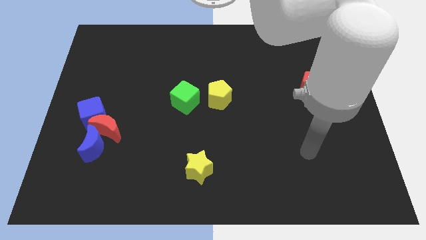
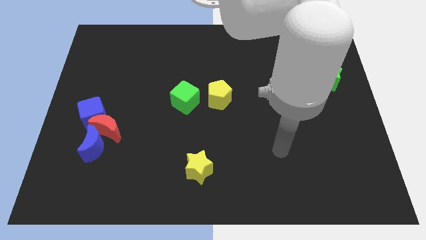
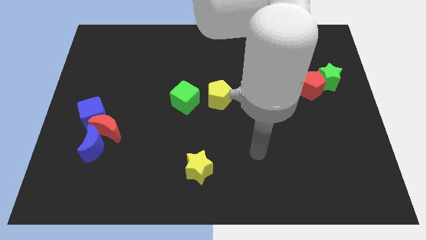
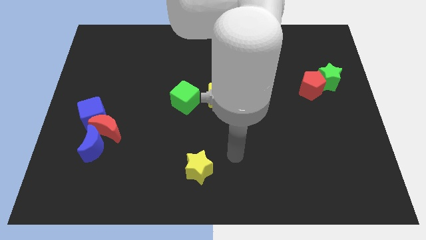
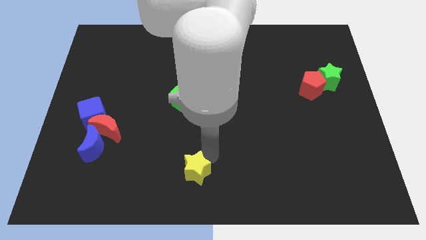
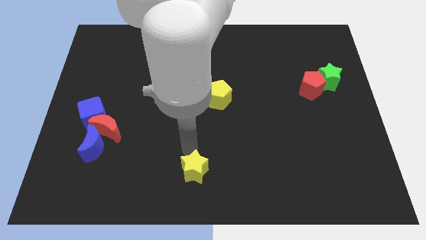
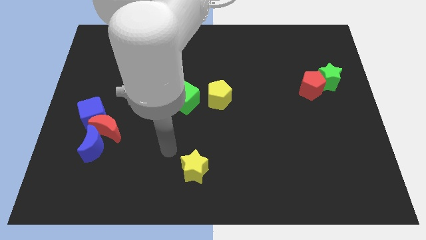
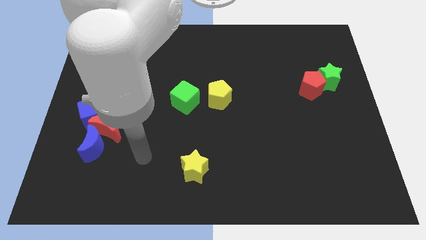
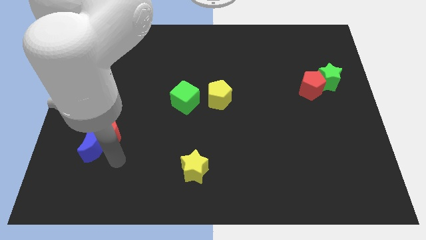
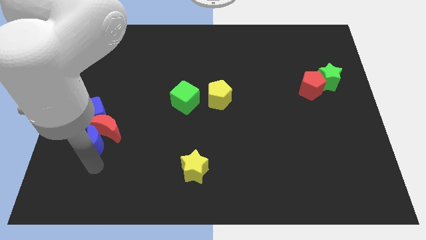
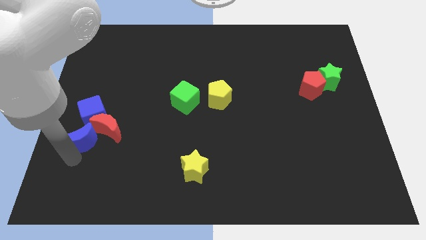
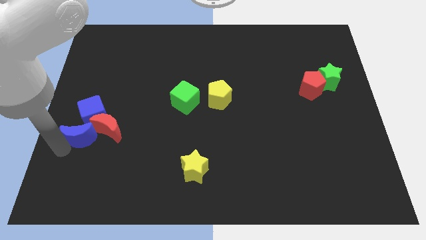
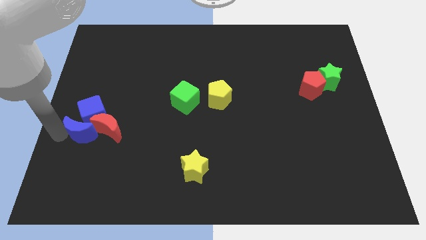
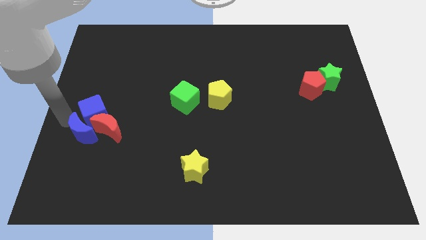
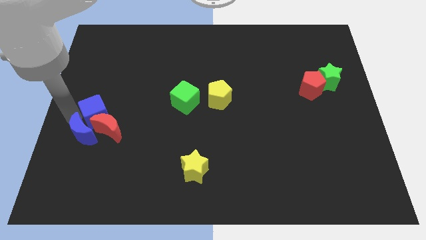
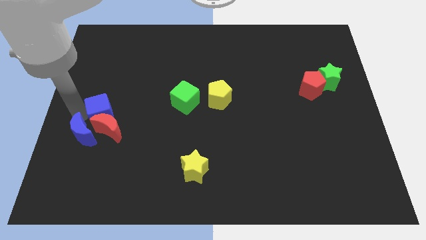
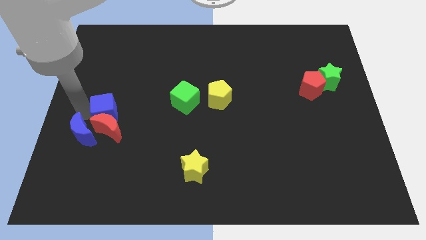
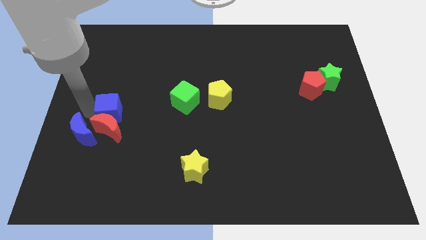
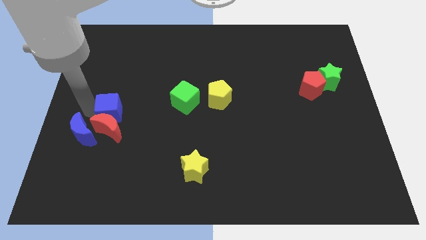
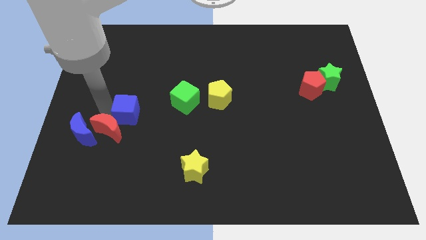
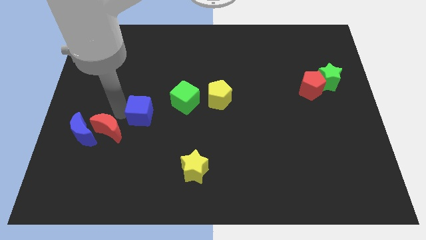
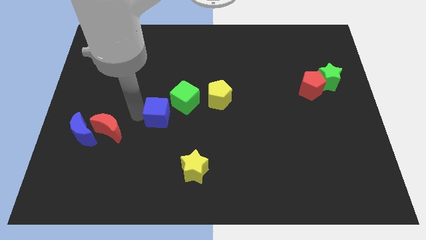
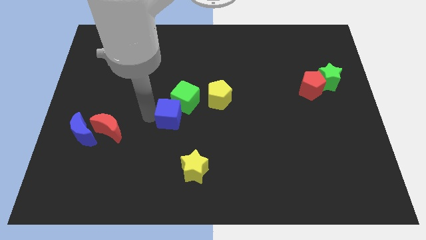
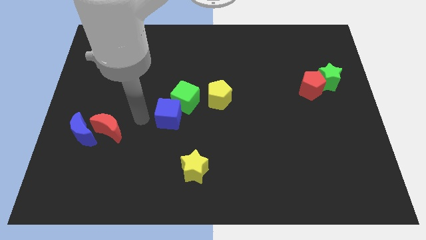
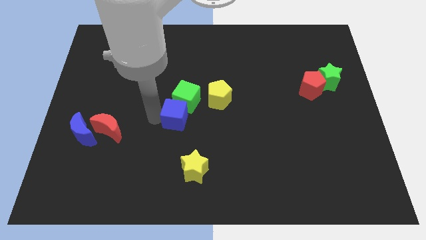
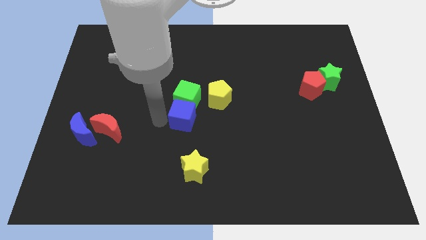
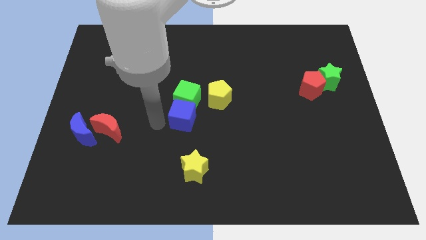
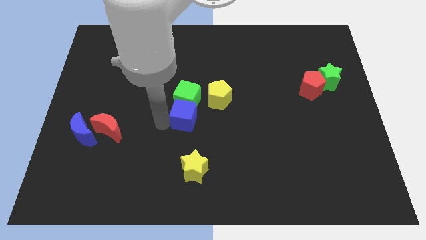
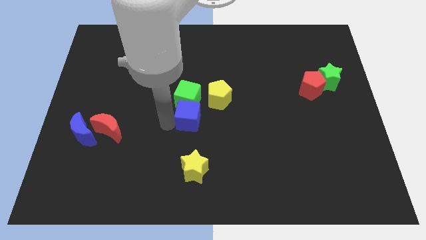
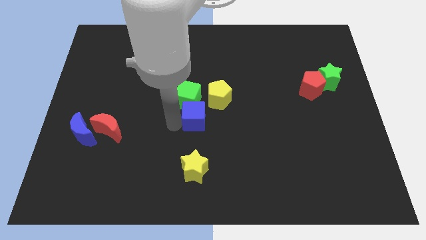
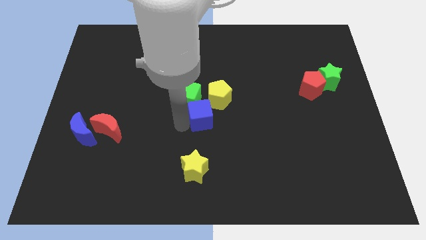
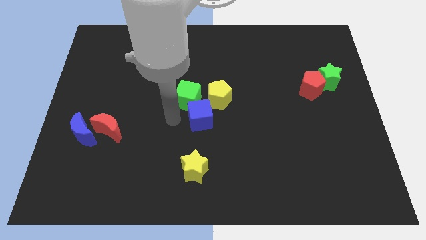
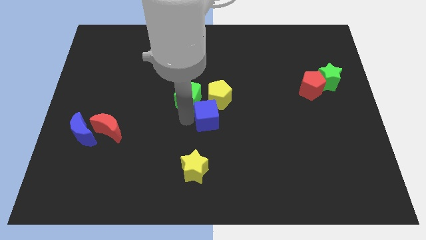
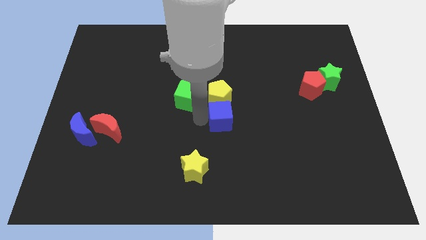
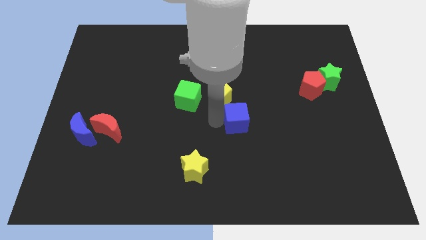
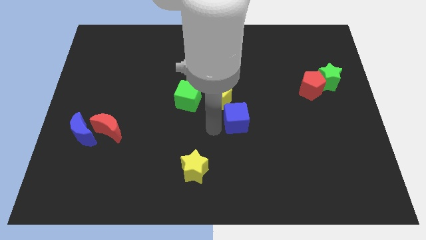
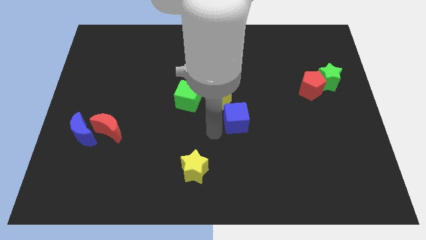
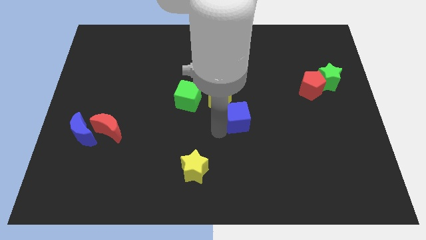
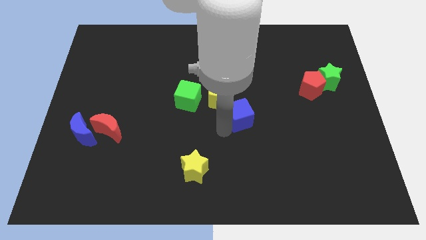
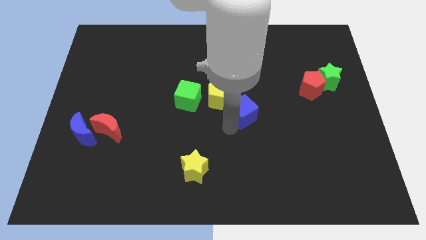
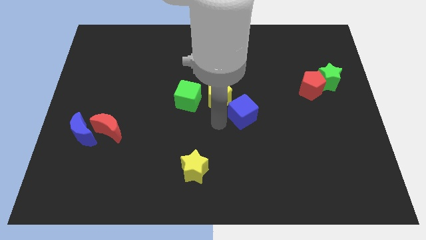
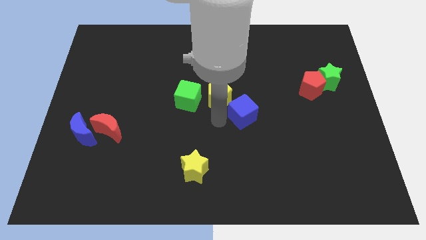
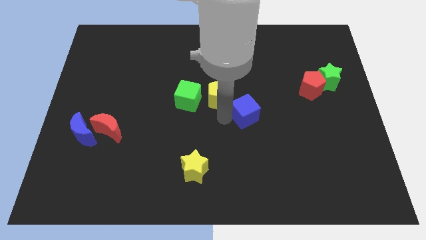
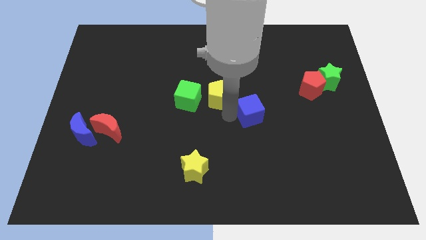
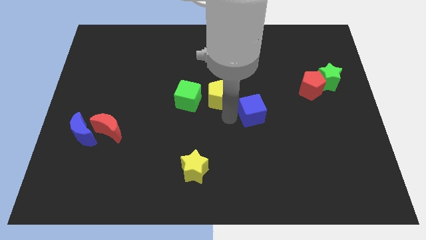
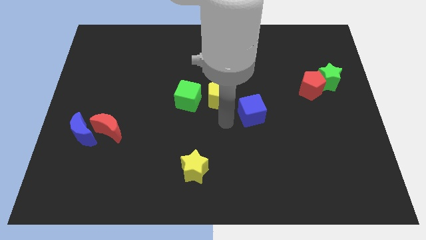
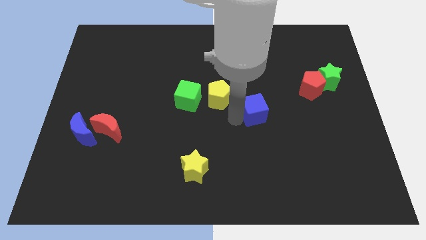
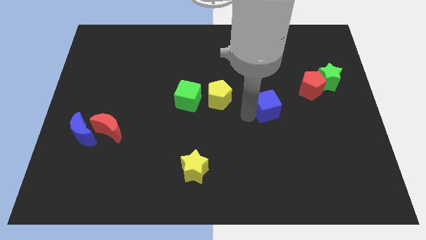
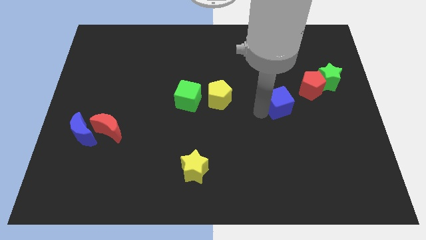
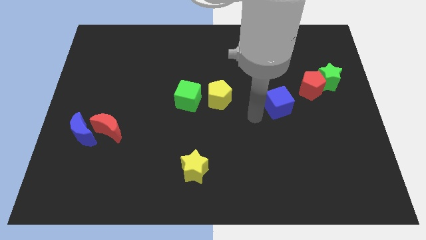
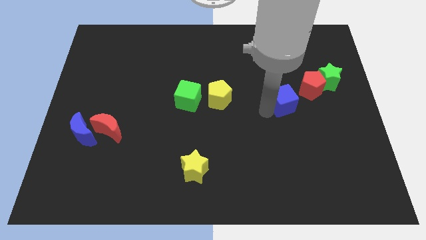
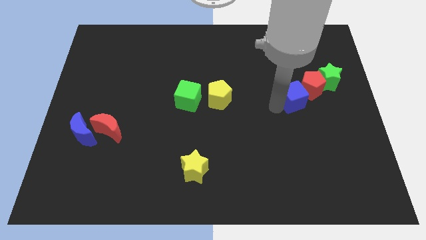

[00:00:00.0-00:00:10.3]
slide the blue cube to the red pentagon

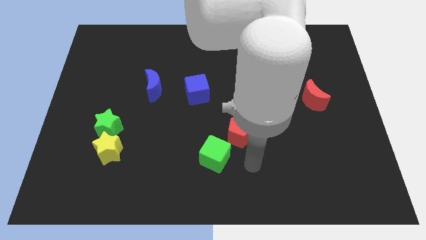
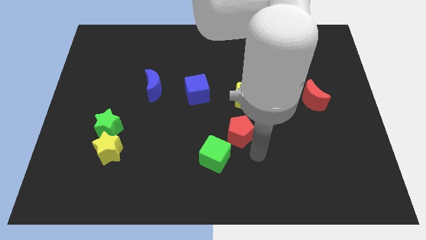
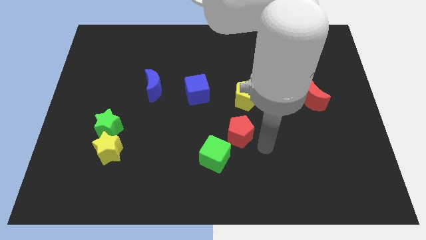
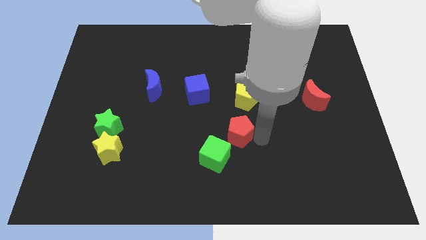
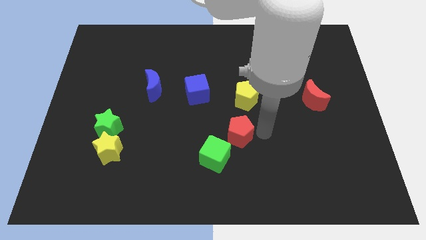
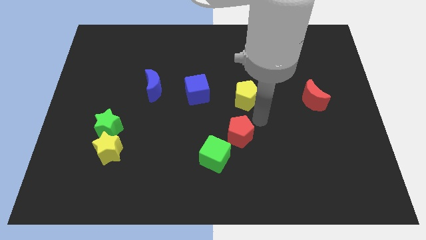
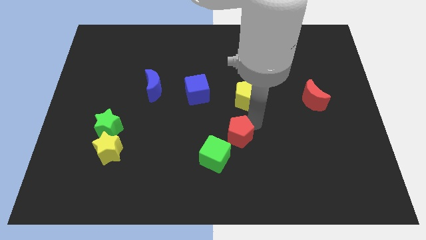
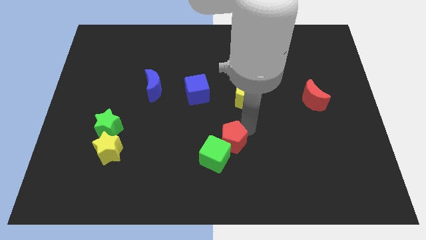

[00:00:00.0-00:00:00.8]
move the red pentagon to the green cube
